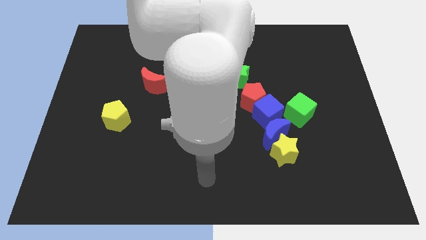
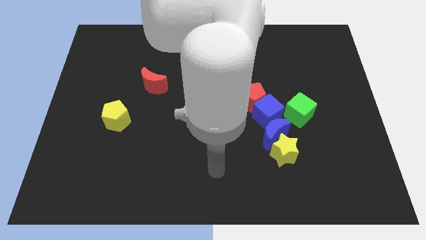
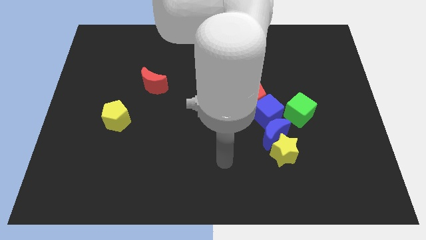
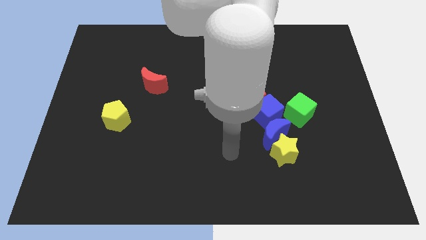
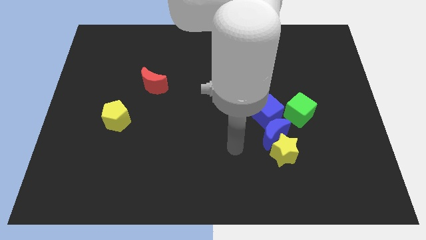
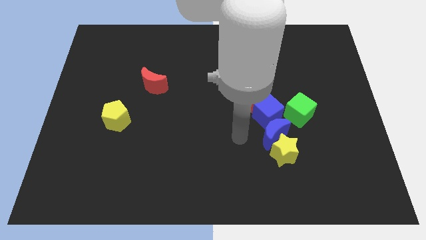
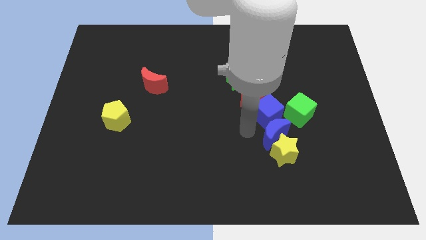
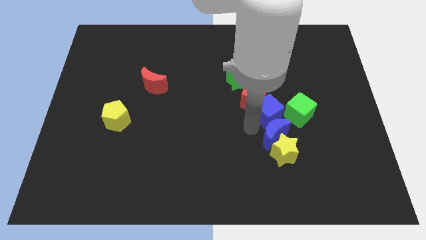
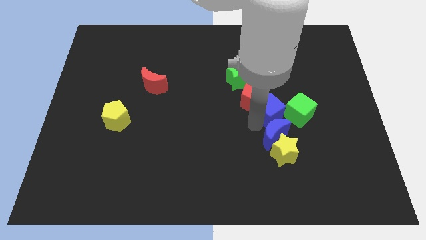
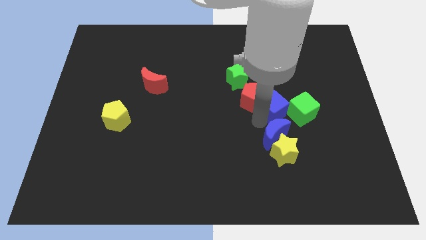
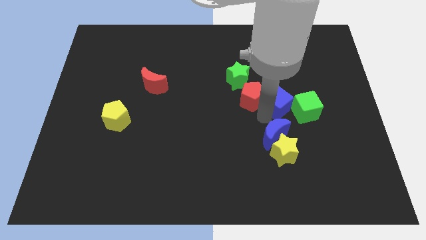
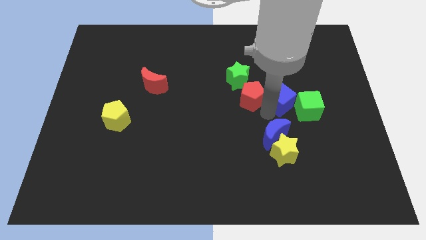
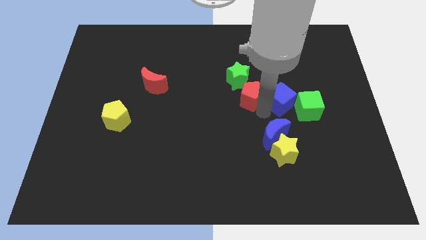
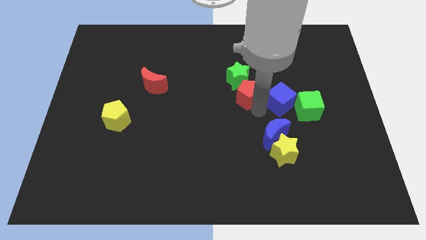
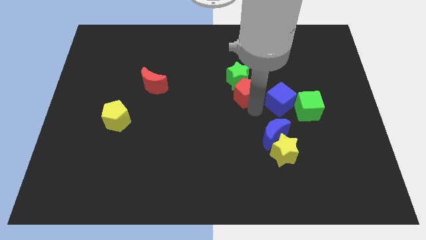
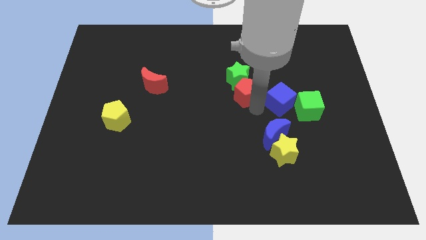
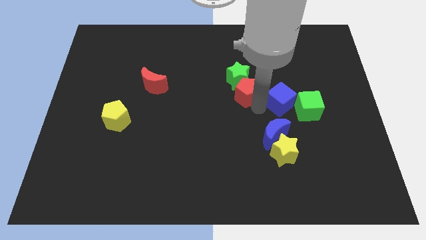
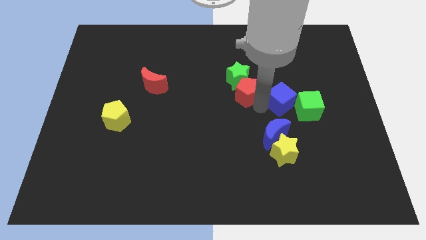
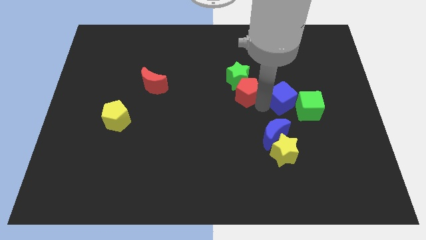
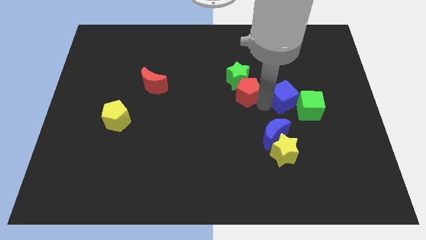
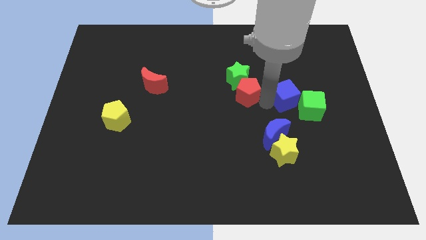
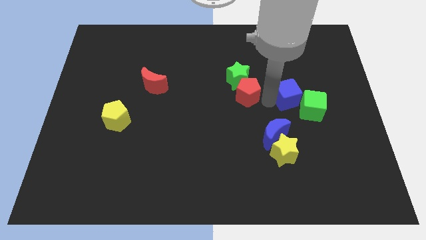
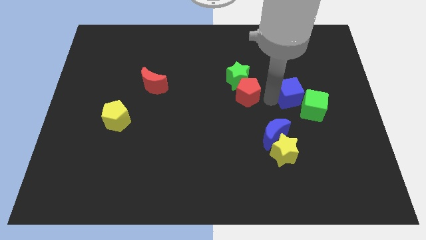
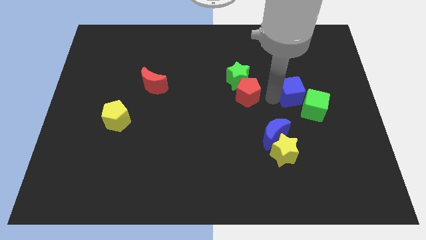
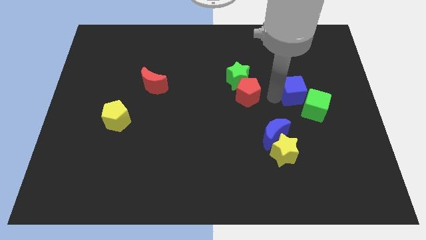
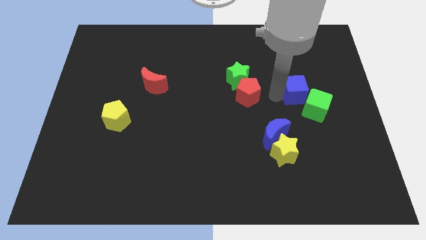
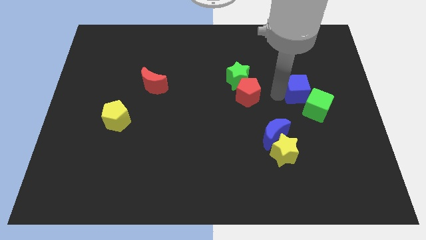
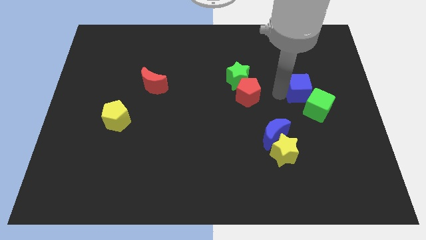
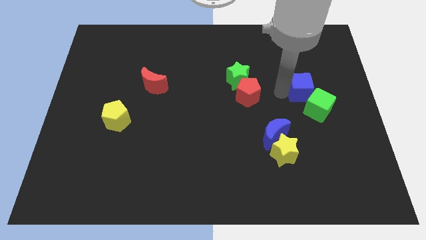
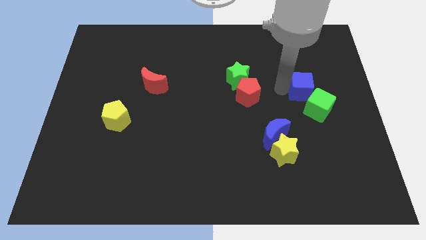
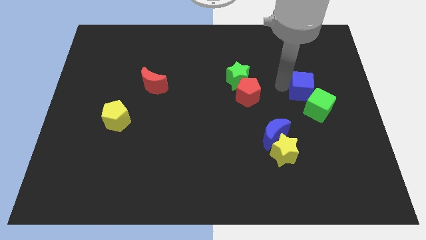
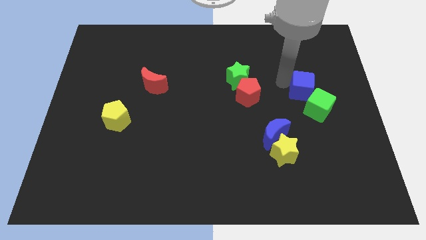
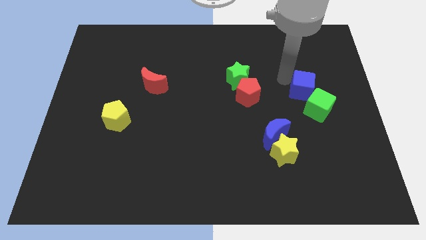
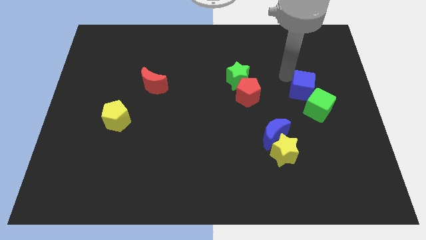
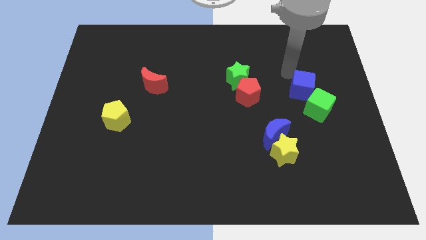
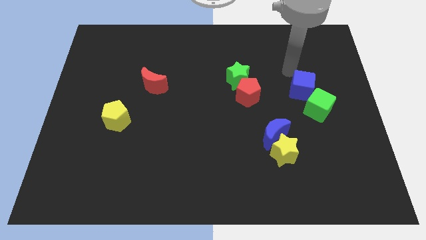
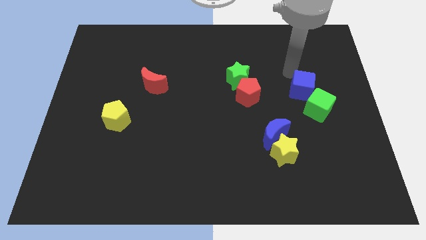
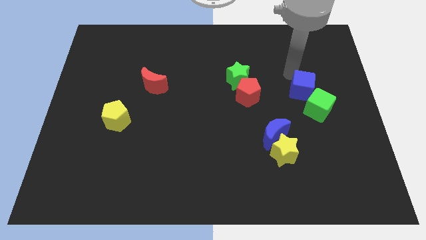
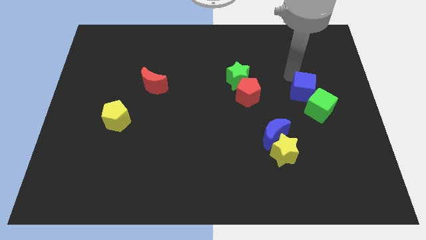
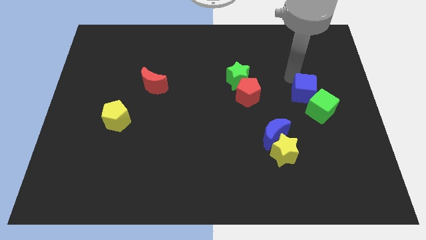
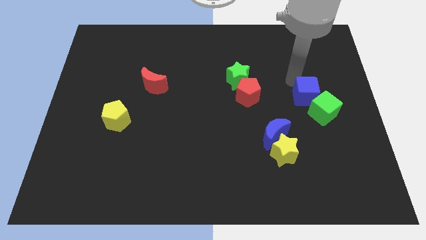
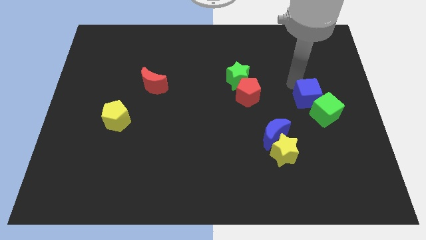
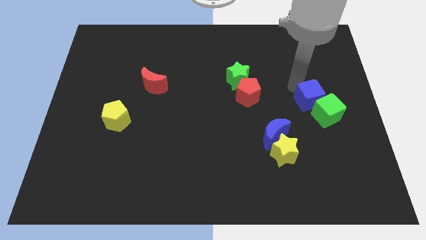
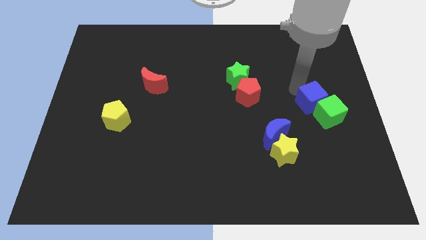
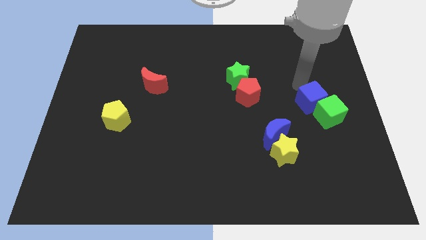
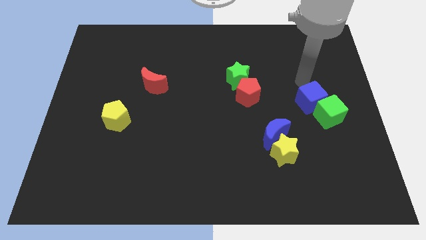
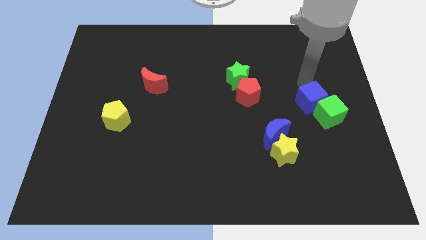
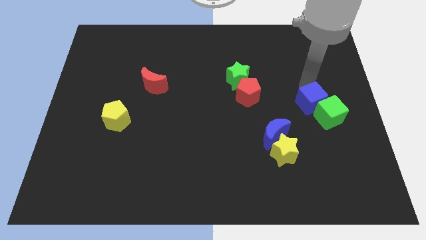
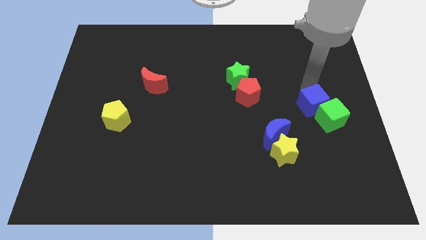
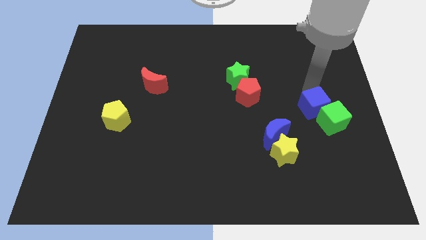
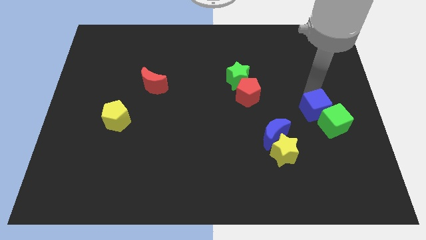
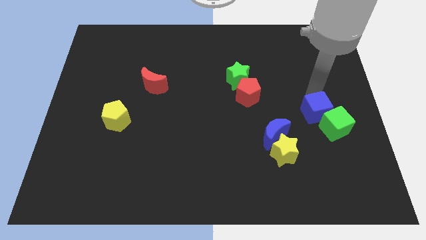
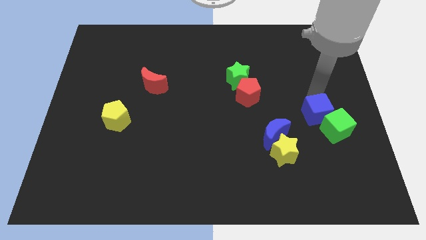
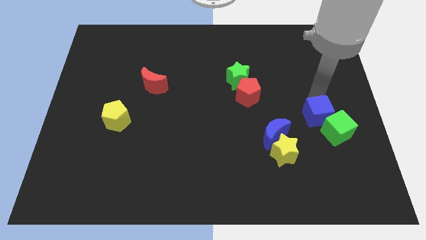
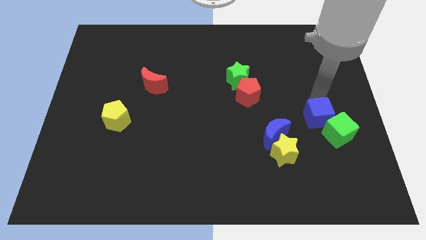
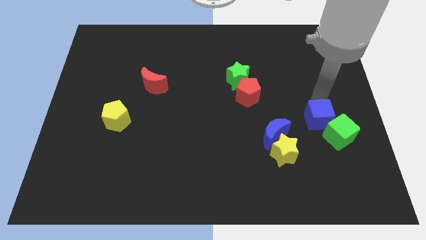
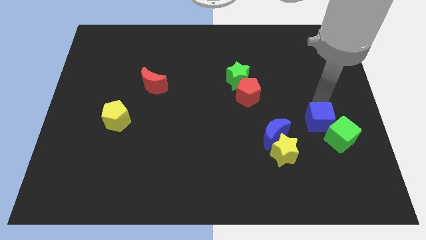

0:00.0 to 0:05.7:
slide the blue cube down and right a bit

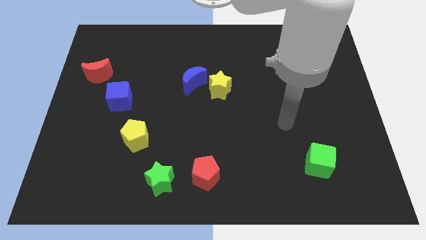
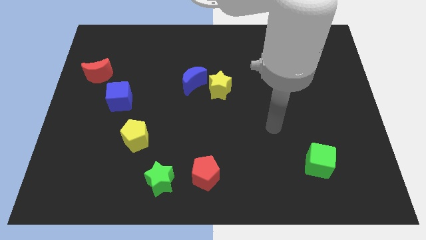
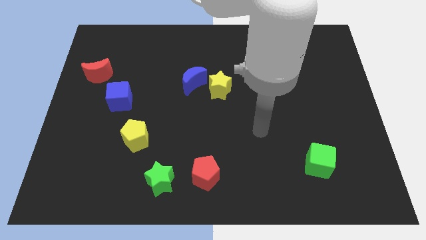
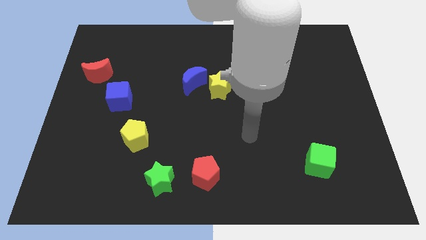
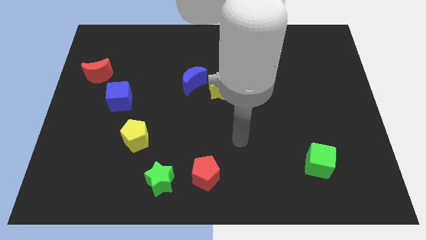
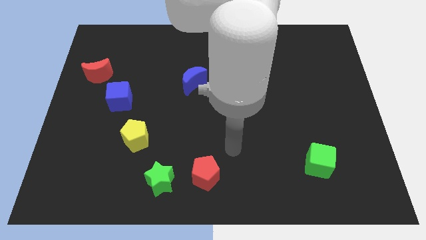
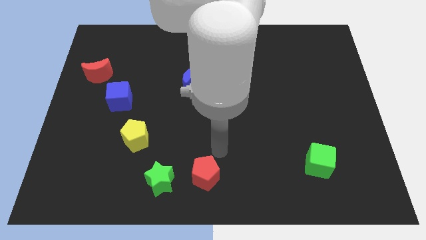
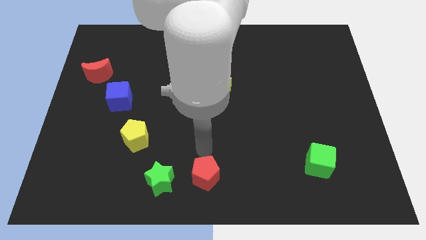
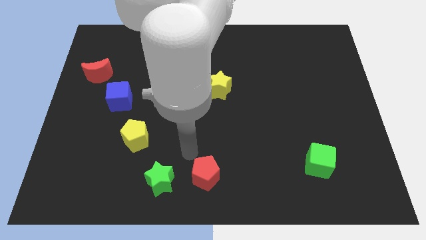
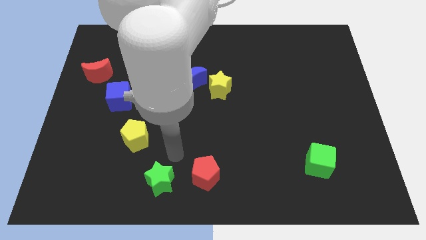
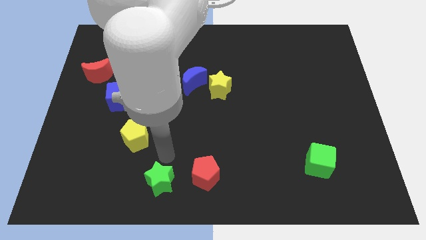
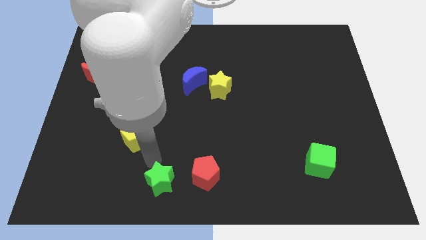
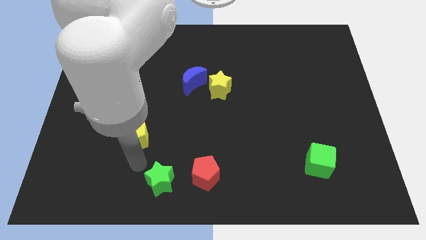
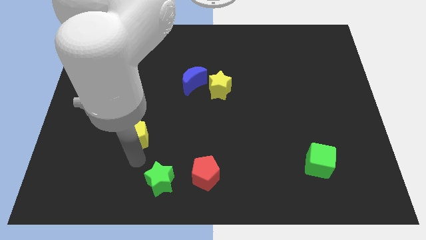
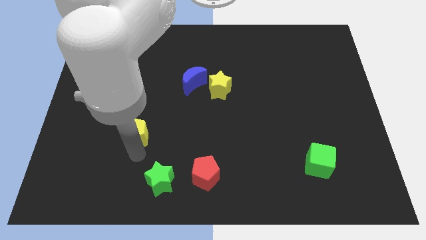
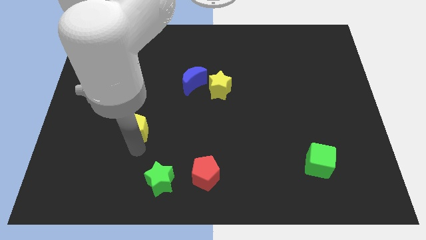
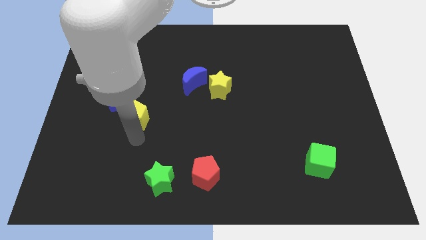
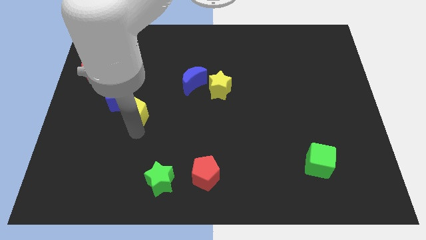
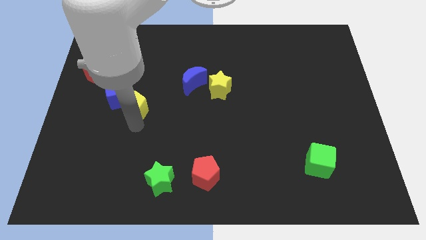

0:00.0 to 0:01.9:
slightly slide the yellow pentagon upwards

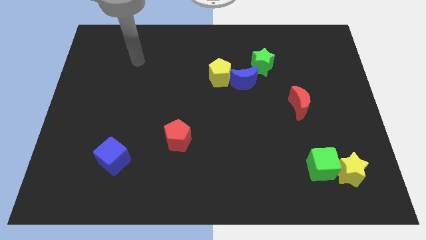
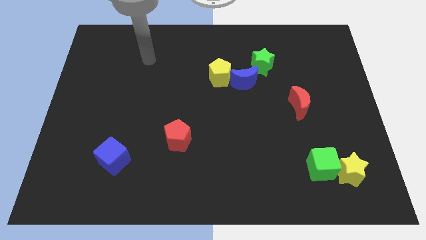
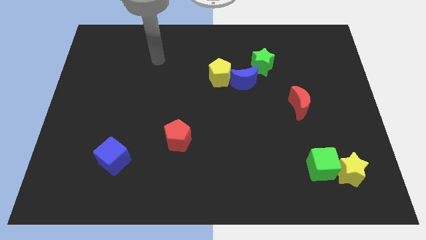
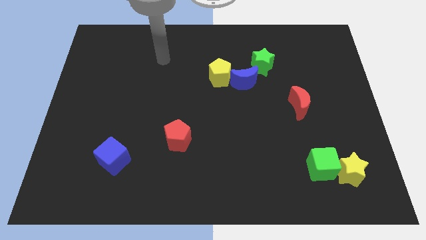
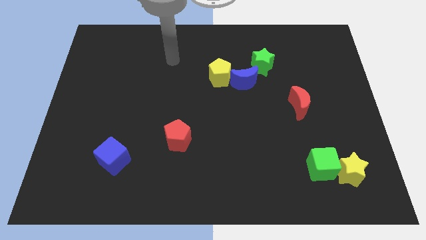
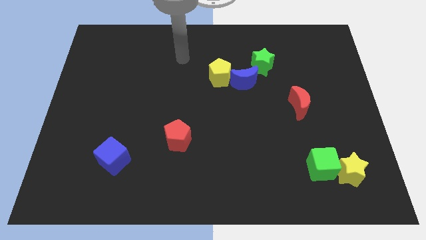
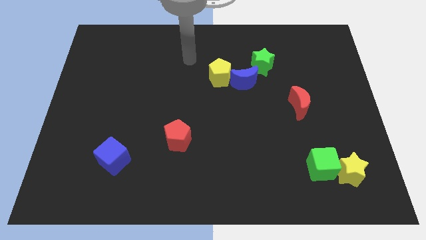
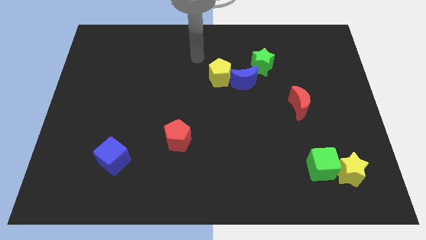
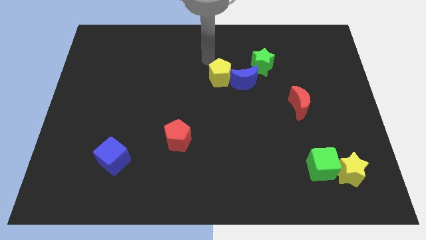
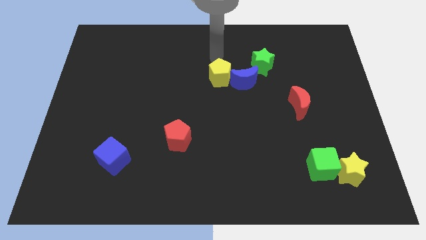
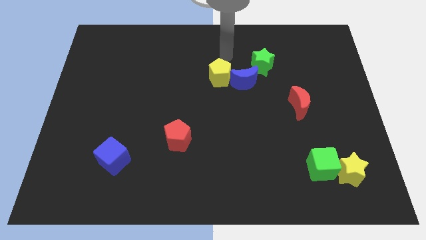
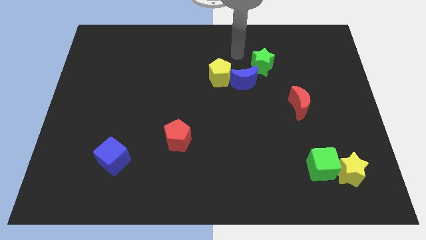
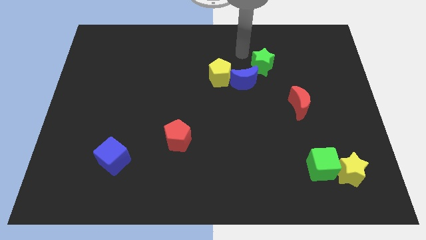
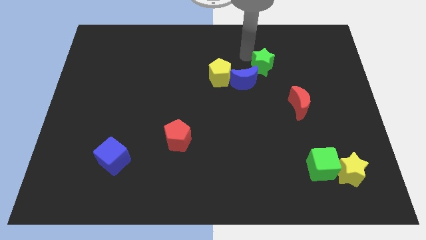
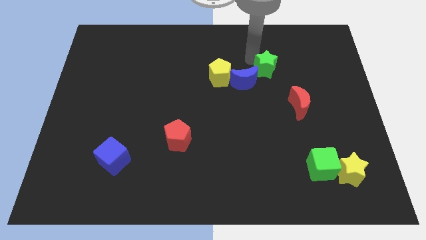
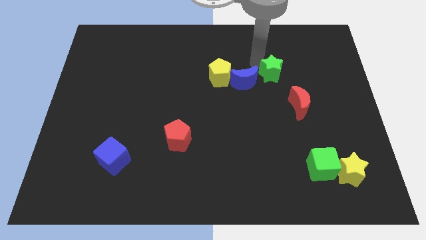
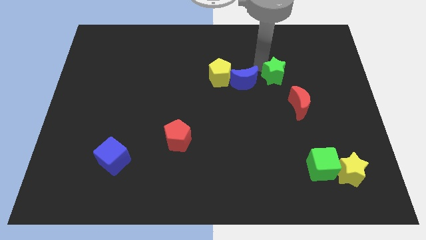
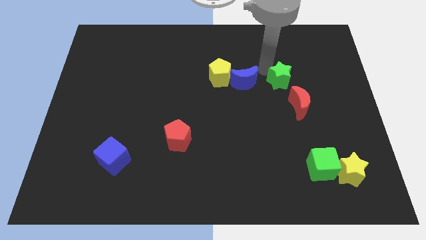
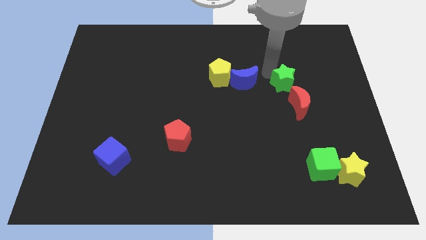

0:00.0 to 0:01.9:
slightly move the green star diagonally down and right
